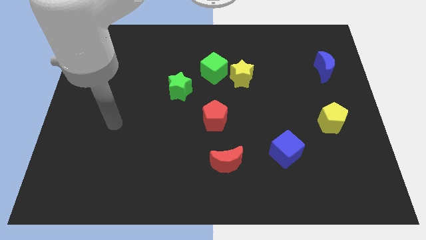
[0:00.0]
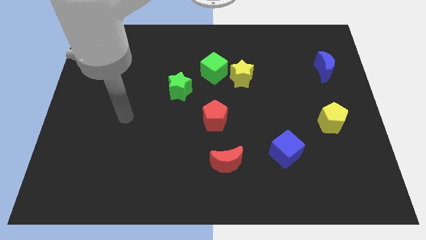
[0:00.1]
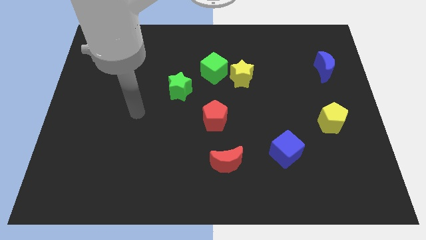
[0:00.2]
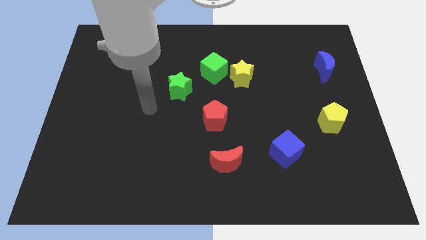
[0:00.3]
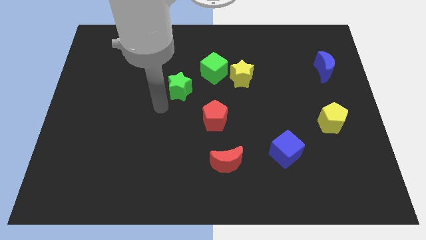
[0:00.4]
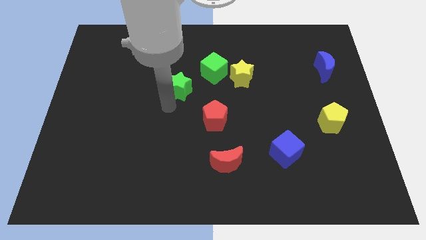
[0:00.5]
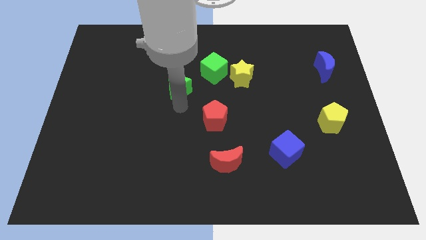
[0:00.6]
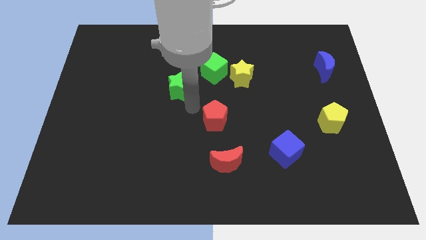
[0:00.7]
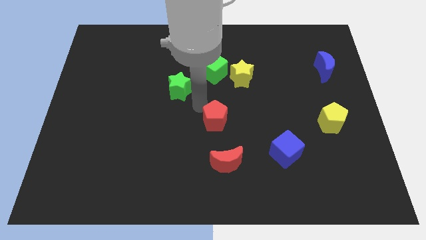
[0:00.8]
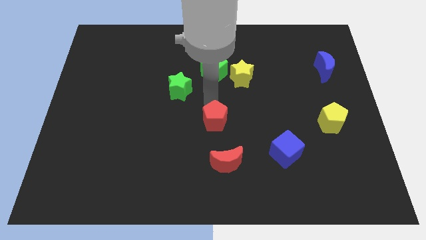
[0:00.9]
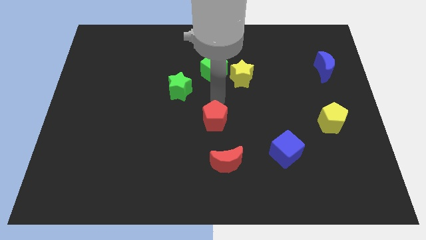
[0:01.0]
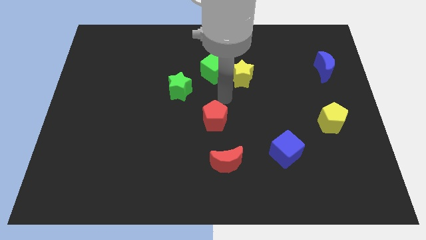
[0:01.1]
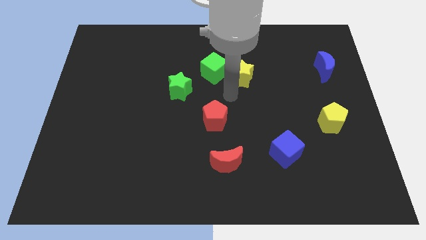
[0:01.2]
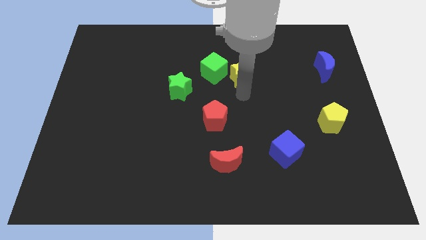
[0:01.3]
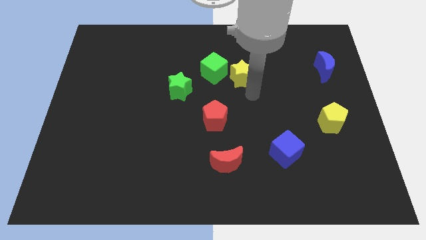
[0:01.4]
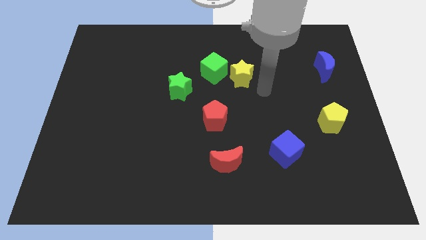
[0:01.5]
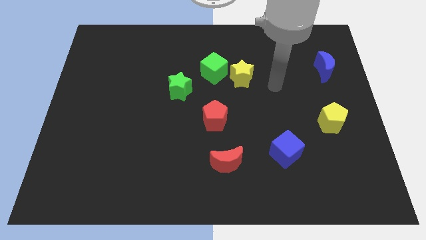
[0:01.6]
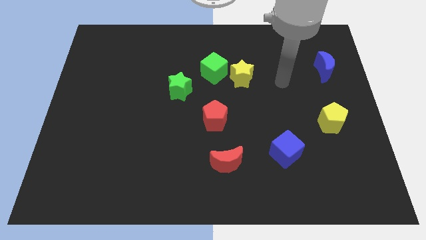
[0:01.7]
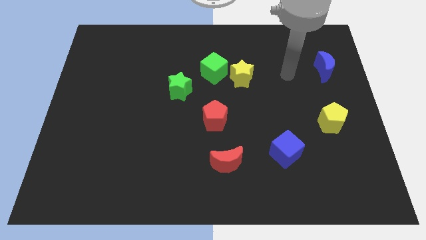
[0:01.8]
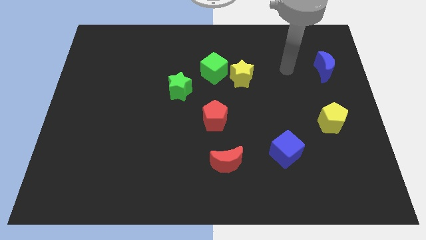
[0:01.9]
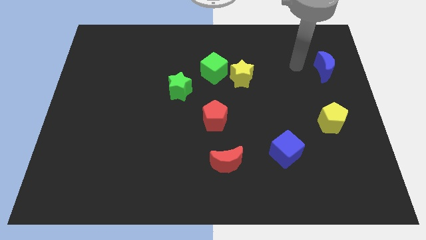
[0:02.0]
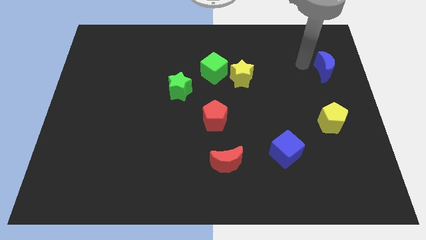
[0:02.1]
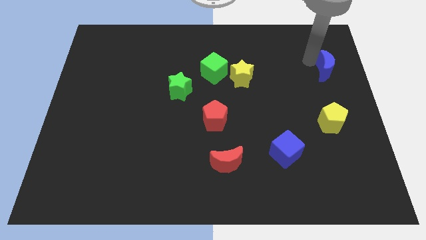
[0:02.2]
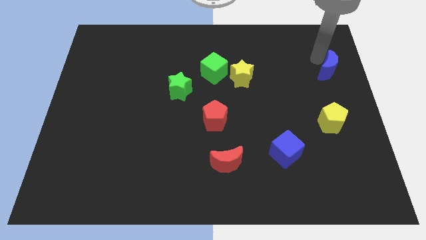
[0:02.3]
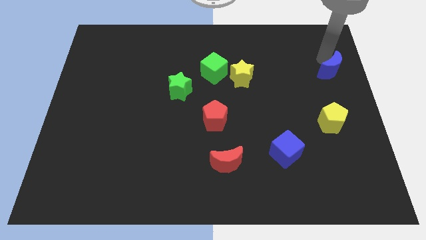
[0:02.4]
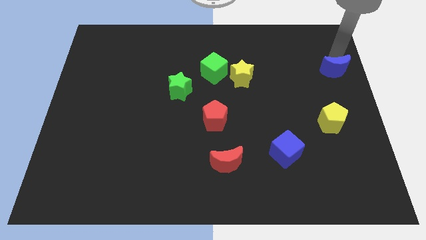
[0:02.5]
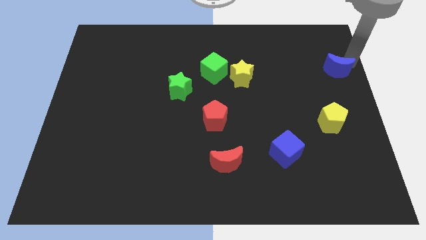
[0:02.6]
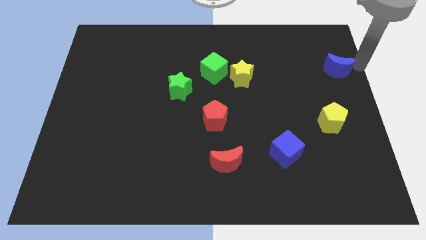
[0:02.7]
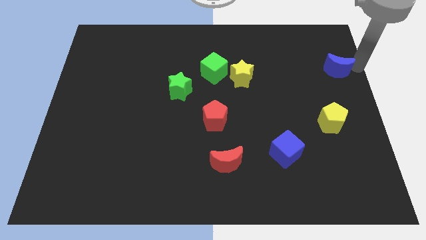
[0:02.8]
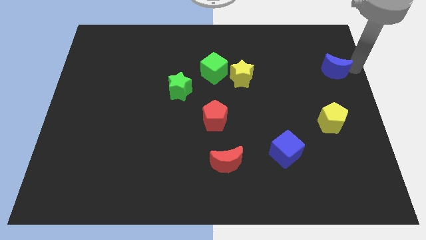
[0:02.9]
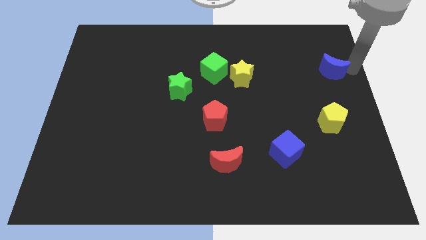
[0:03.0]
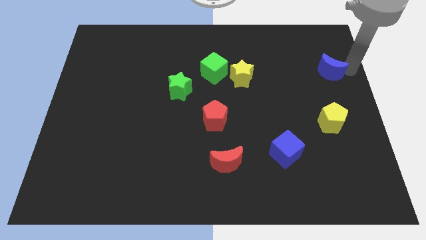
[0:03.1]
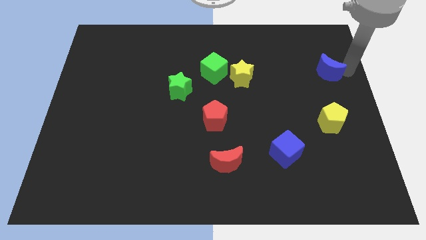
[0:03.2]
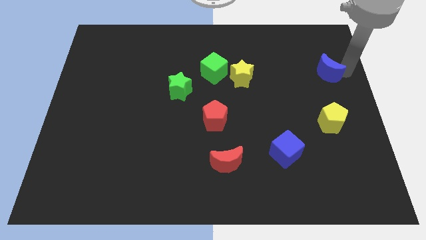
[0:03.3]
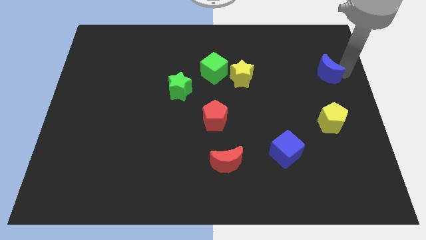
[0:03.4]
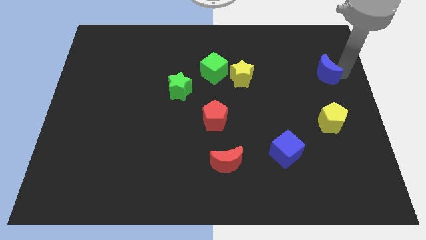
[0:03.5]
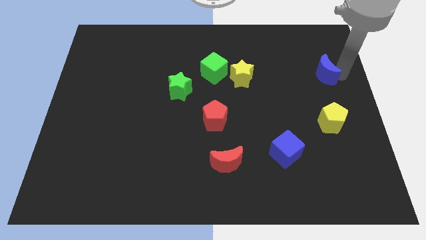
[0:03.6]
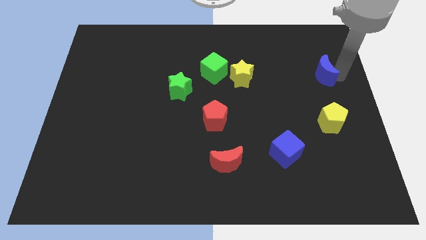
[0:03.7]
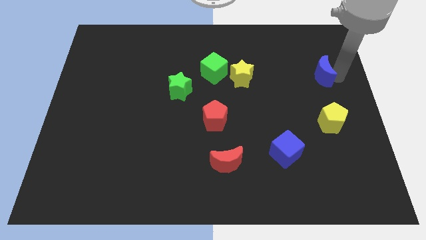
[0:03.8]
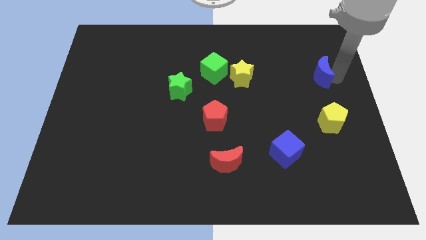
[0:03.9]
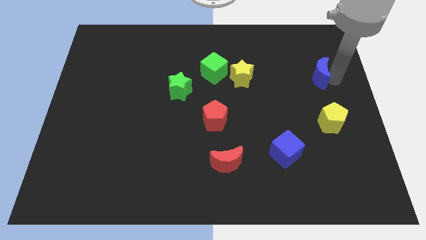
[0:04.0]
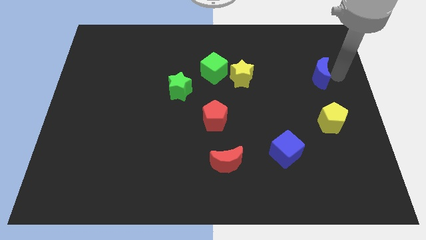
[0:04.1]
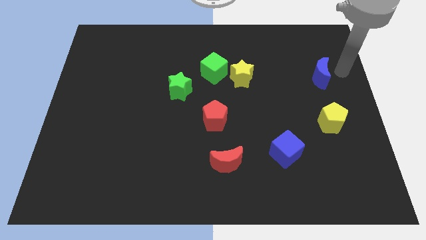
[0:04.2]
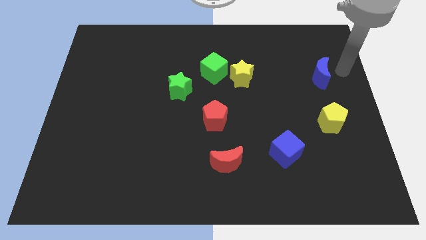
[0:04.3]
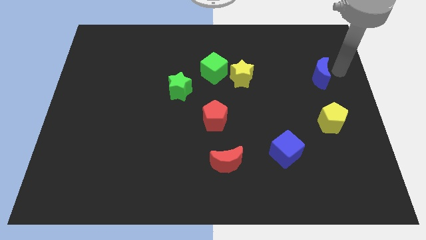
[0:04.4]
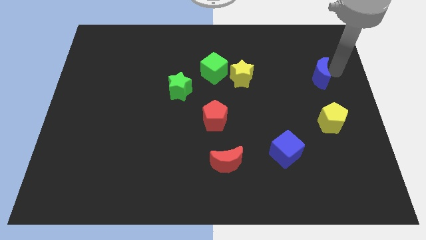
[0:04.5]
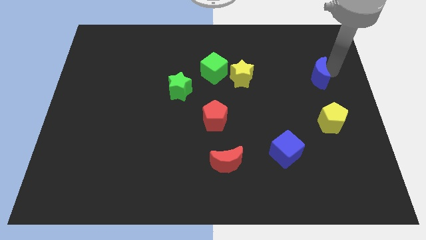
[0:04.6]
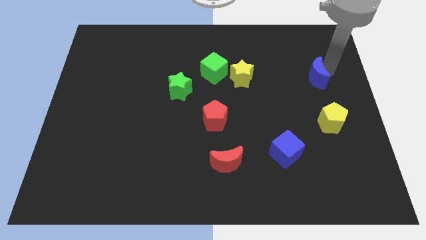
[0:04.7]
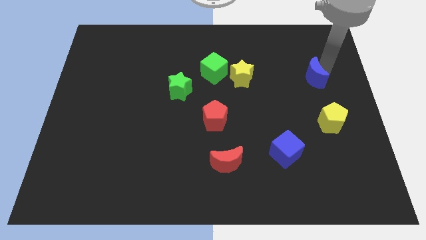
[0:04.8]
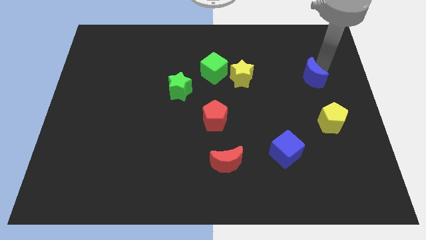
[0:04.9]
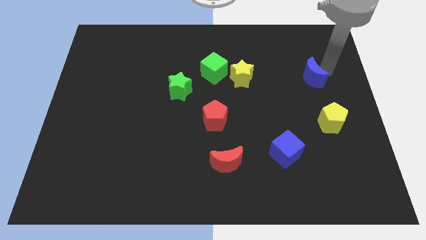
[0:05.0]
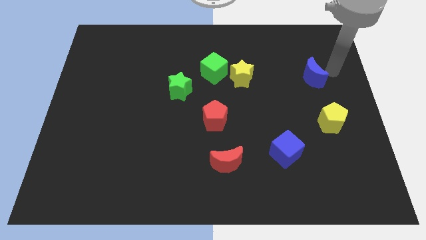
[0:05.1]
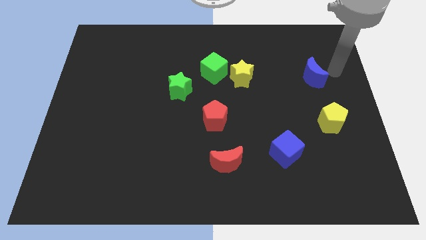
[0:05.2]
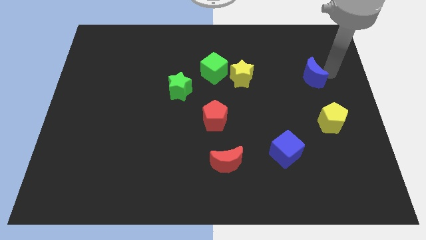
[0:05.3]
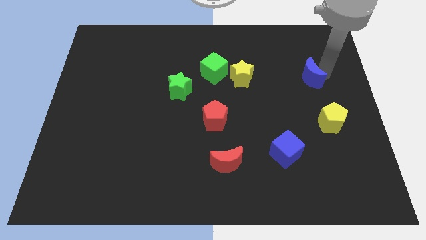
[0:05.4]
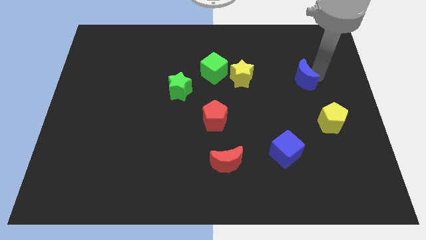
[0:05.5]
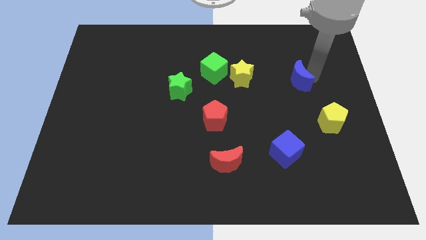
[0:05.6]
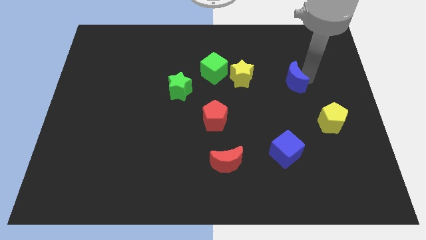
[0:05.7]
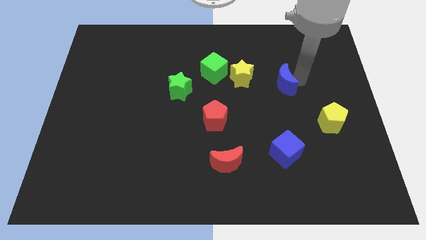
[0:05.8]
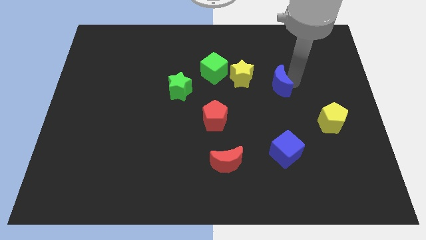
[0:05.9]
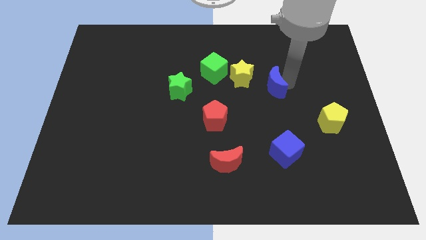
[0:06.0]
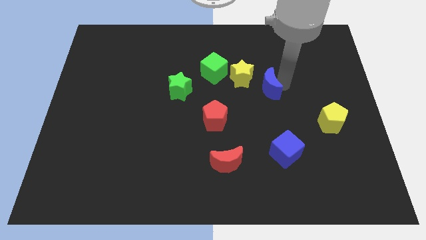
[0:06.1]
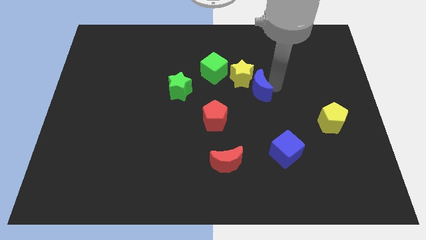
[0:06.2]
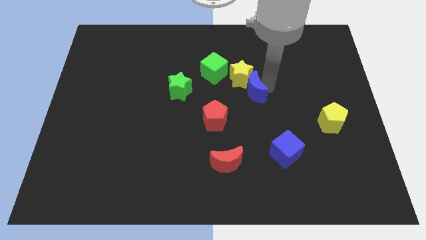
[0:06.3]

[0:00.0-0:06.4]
slide the blue moon diagonally up and to the right of the red pentagon
